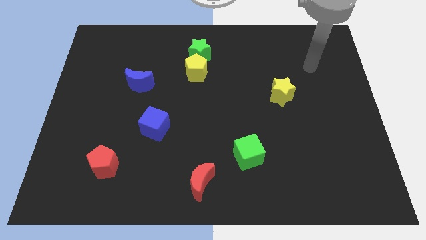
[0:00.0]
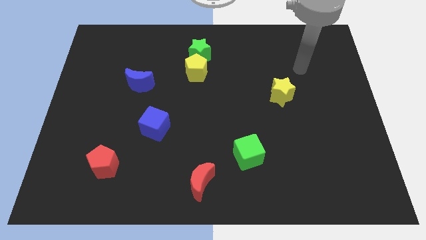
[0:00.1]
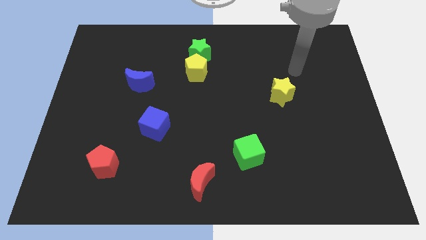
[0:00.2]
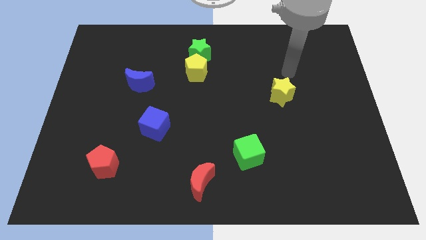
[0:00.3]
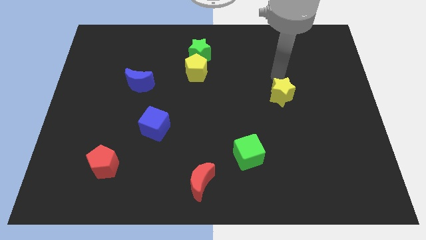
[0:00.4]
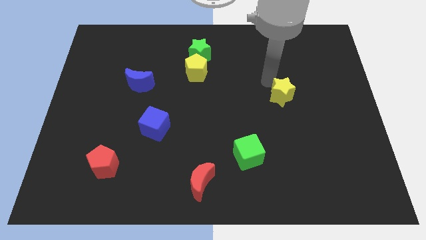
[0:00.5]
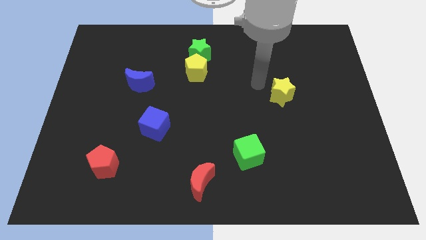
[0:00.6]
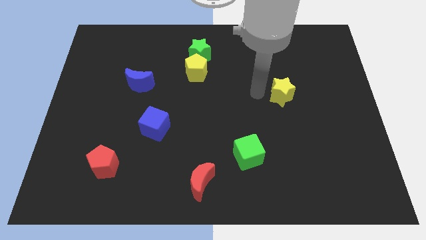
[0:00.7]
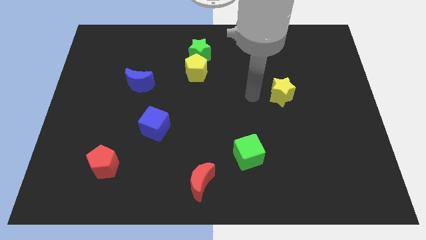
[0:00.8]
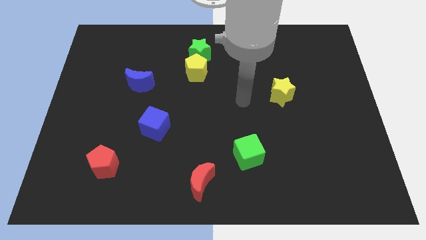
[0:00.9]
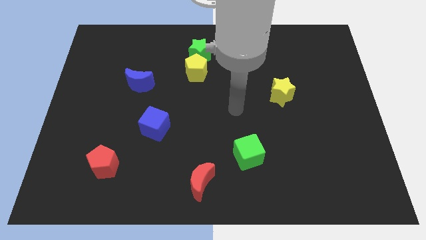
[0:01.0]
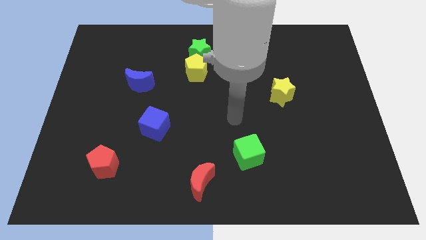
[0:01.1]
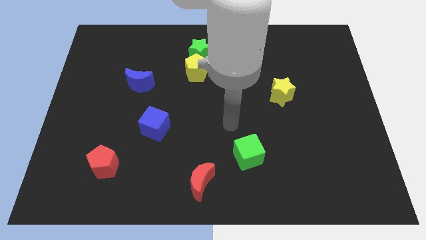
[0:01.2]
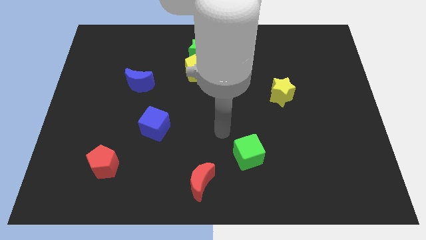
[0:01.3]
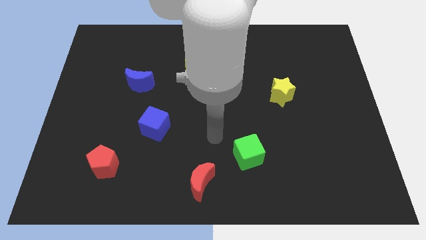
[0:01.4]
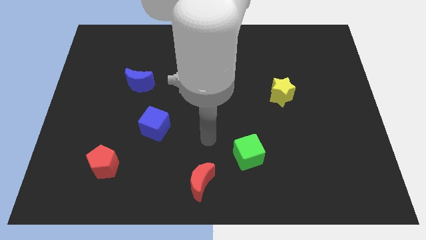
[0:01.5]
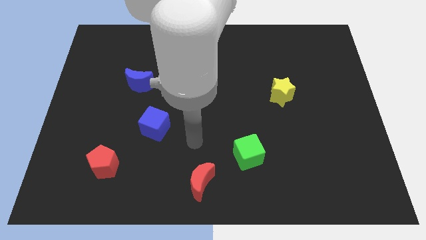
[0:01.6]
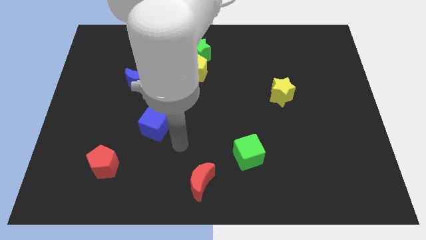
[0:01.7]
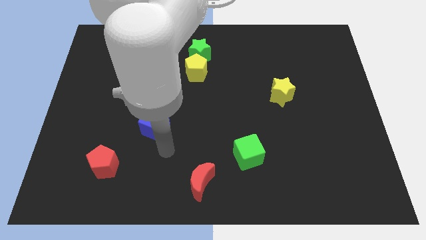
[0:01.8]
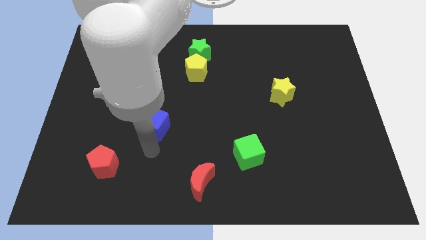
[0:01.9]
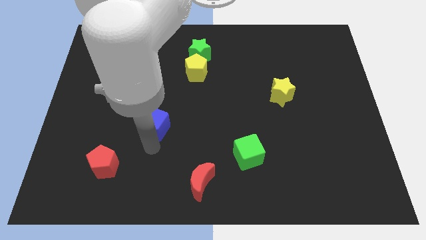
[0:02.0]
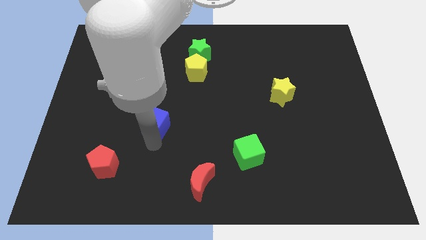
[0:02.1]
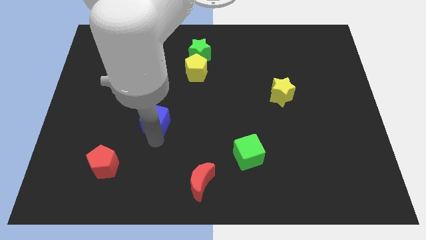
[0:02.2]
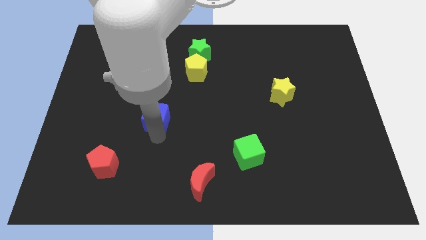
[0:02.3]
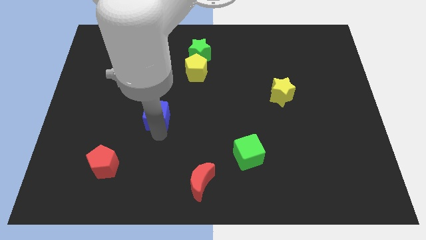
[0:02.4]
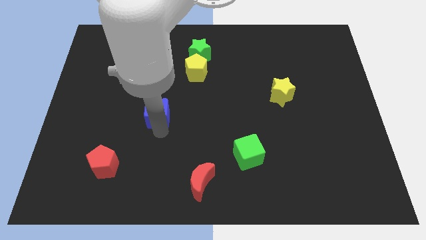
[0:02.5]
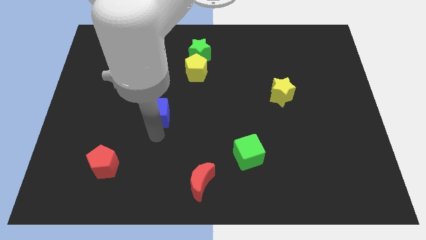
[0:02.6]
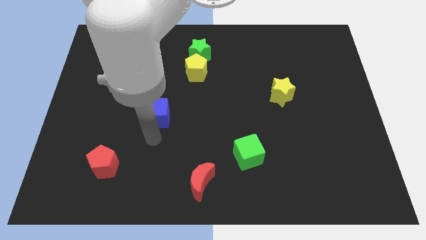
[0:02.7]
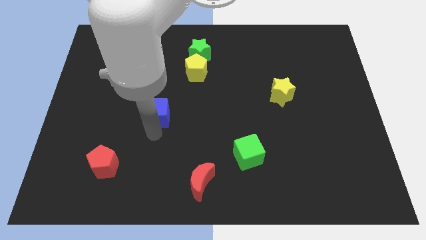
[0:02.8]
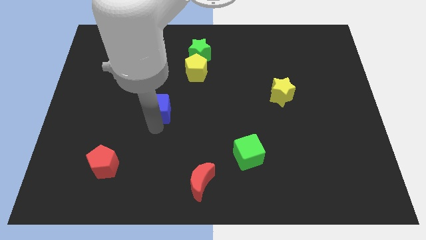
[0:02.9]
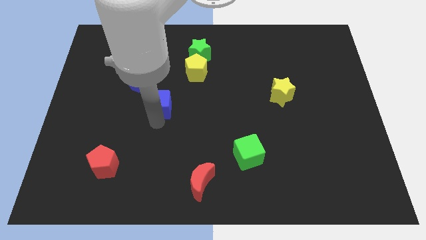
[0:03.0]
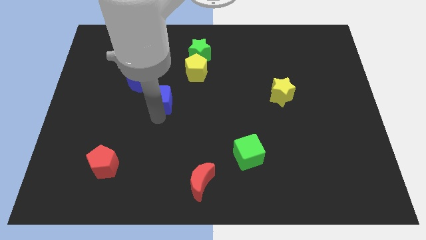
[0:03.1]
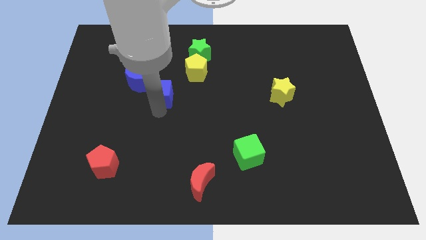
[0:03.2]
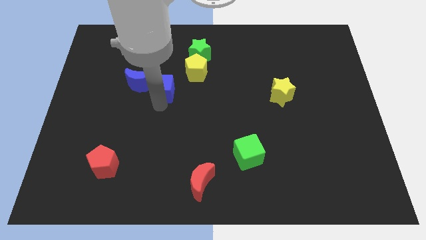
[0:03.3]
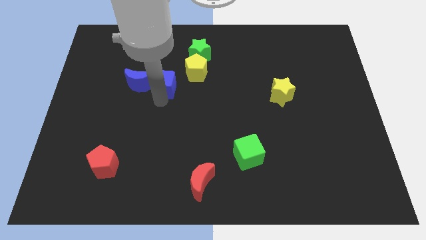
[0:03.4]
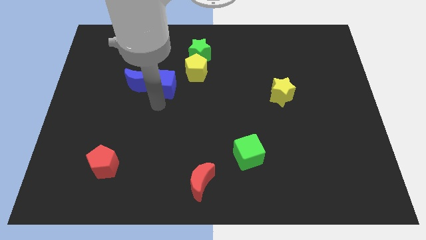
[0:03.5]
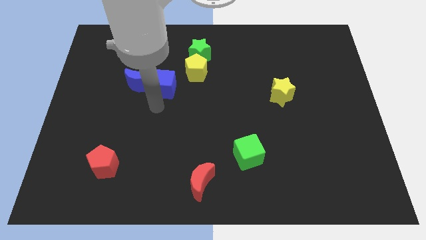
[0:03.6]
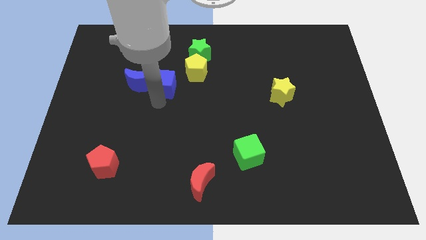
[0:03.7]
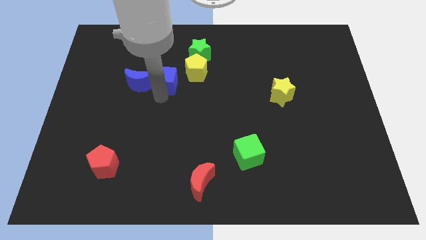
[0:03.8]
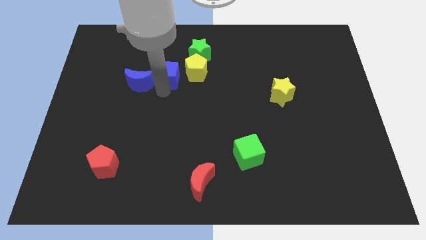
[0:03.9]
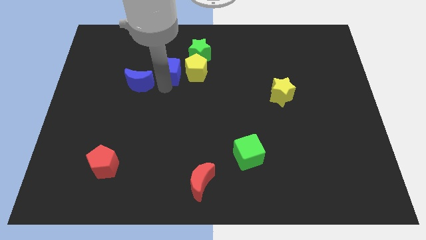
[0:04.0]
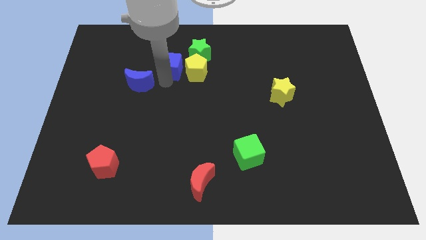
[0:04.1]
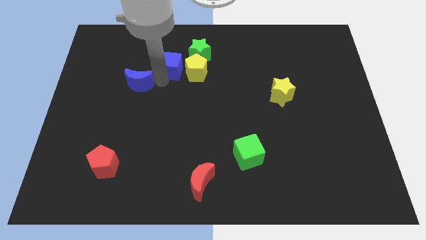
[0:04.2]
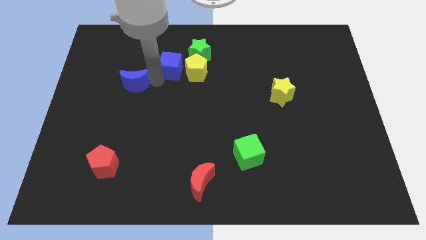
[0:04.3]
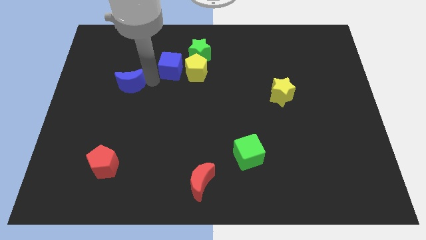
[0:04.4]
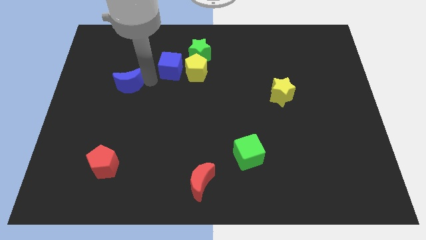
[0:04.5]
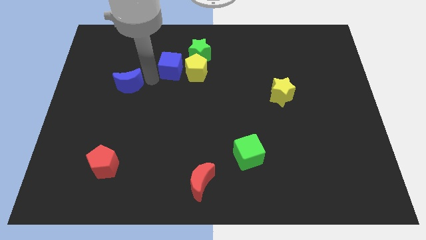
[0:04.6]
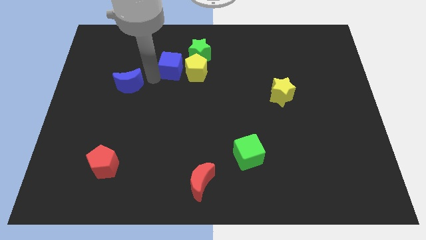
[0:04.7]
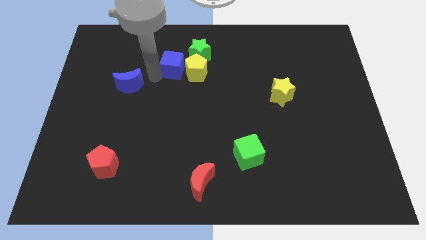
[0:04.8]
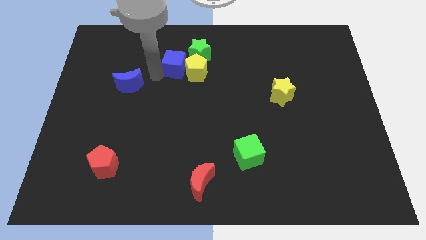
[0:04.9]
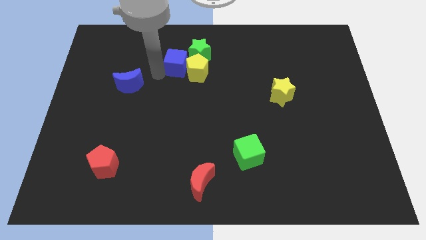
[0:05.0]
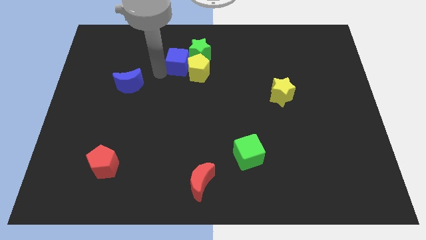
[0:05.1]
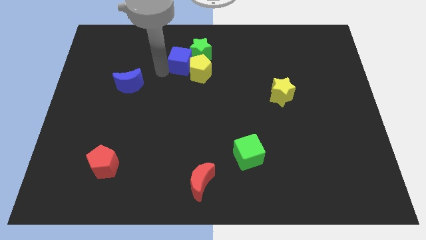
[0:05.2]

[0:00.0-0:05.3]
slide the blue cube close to the green star

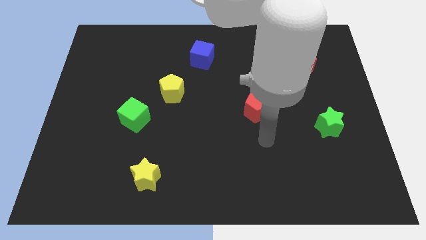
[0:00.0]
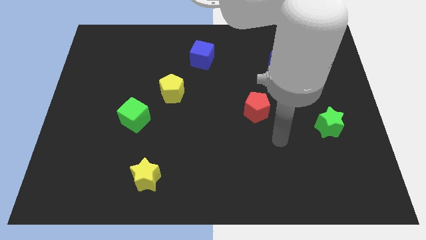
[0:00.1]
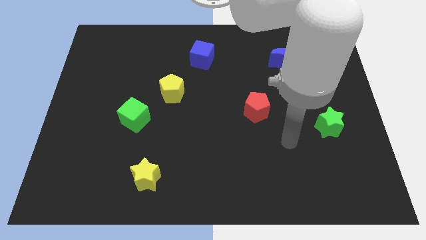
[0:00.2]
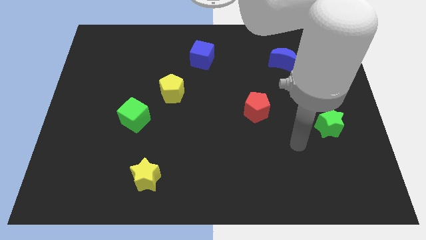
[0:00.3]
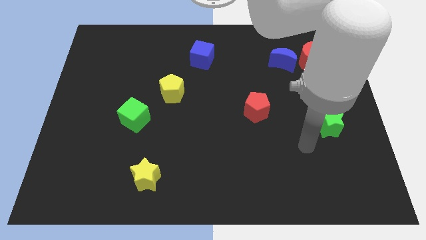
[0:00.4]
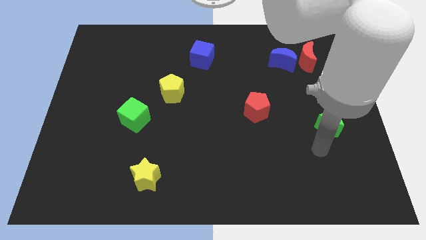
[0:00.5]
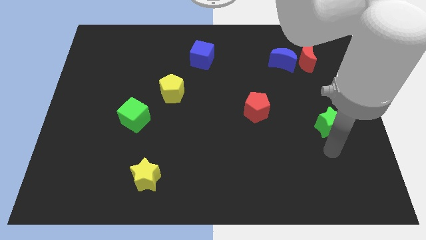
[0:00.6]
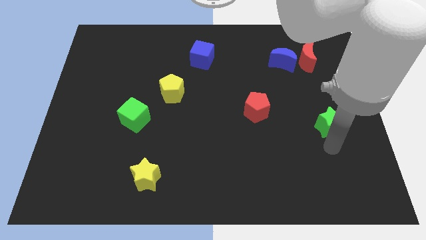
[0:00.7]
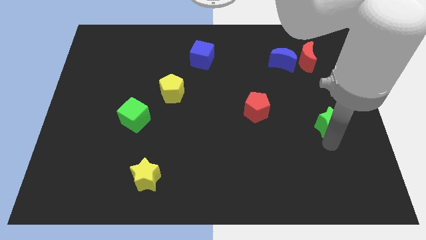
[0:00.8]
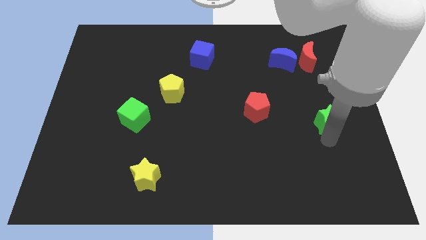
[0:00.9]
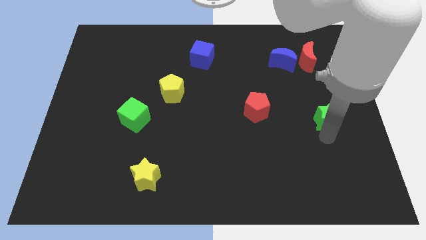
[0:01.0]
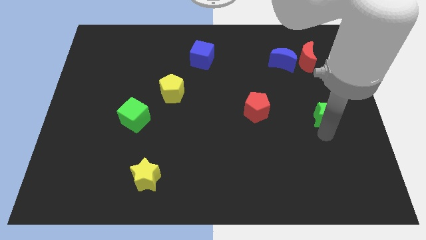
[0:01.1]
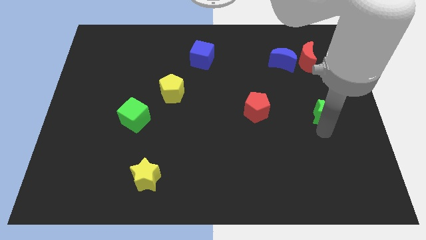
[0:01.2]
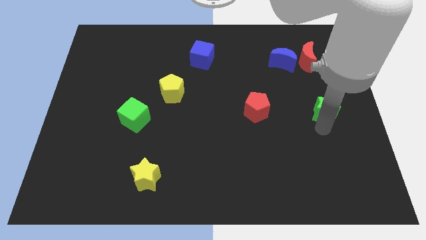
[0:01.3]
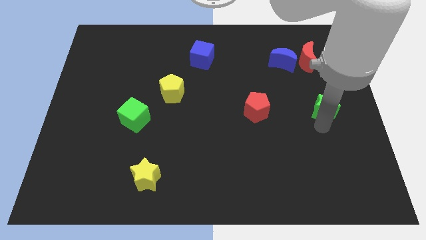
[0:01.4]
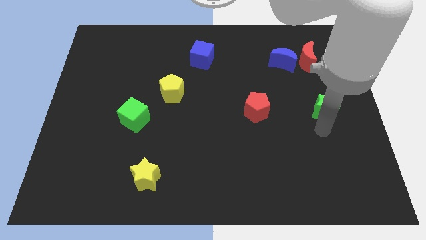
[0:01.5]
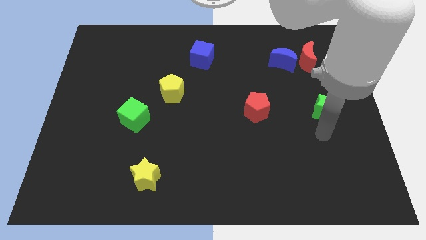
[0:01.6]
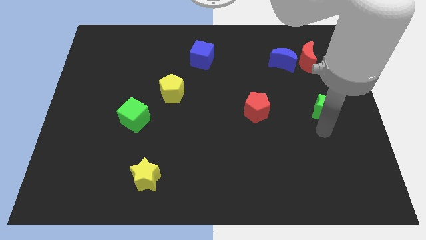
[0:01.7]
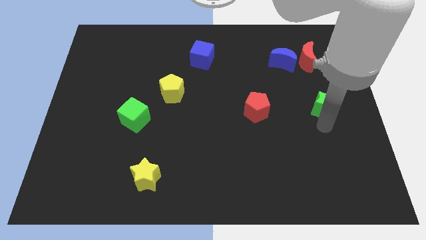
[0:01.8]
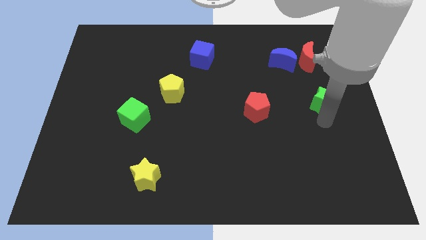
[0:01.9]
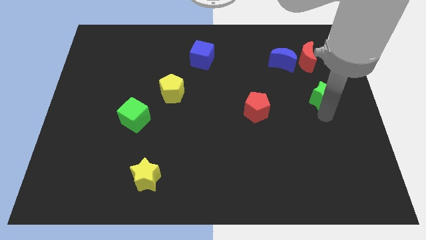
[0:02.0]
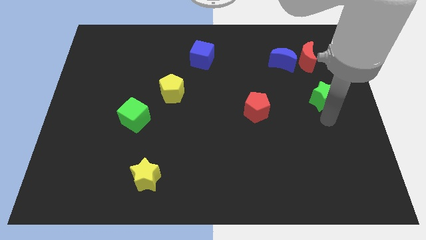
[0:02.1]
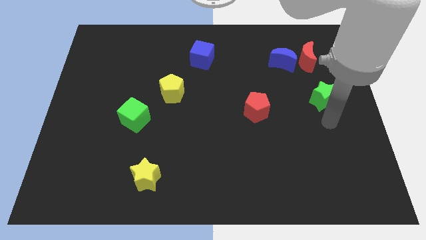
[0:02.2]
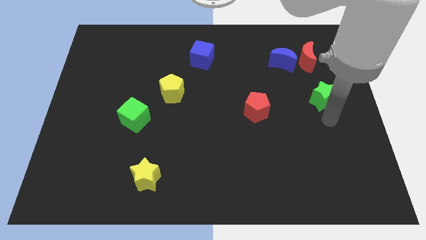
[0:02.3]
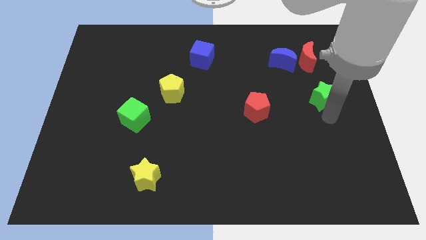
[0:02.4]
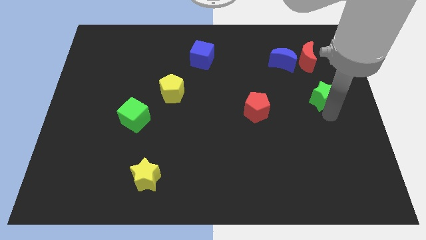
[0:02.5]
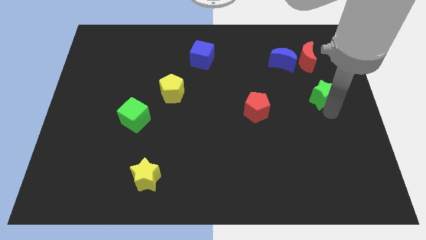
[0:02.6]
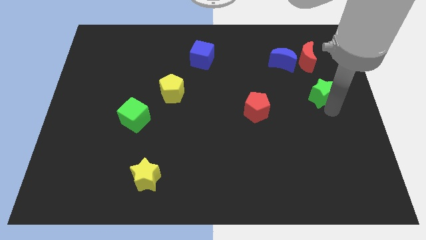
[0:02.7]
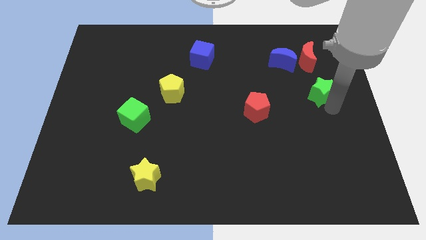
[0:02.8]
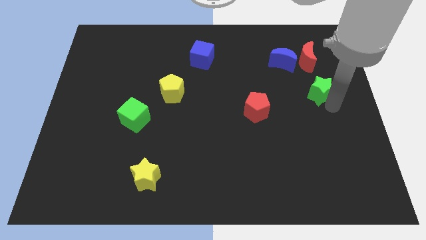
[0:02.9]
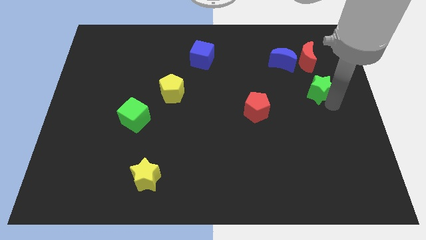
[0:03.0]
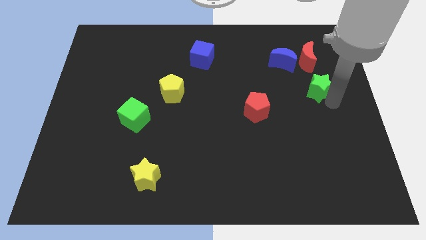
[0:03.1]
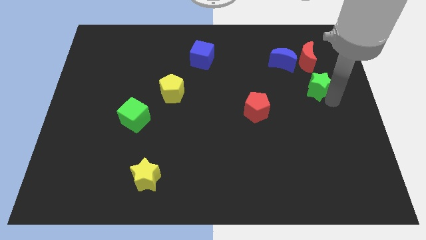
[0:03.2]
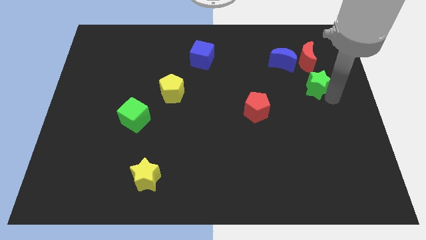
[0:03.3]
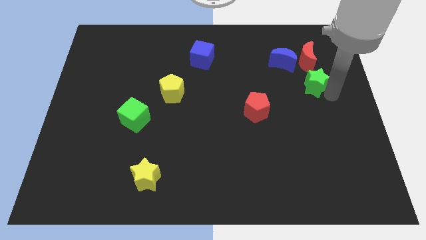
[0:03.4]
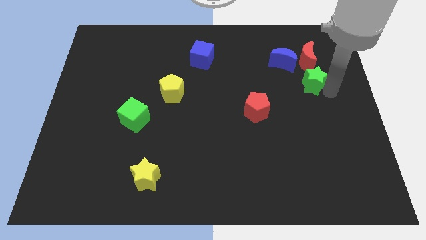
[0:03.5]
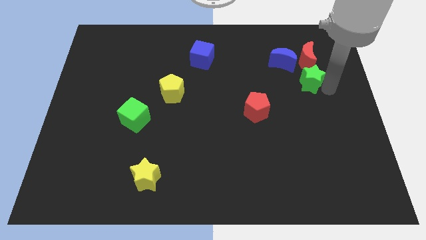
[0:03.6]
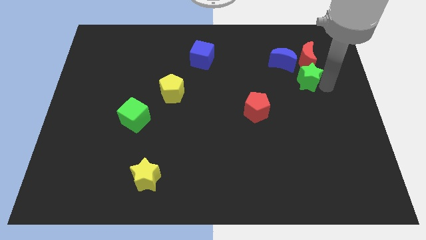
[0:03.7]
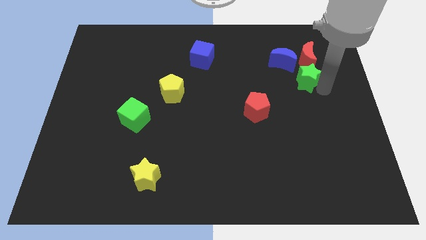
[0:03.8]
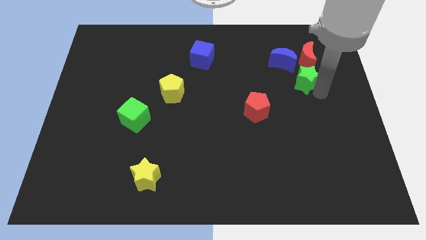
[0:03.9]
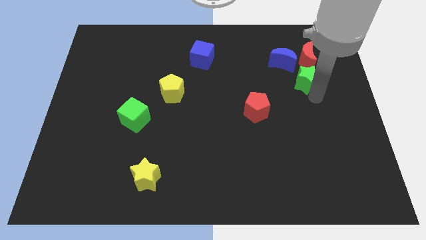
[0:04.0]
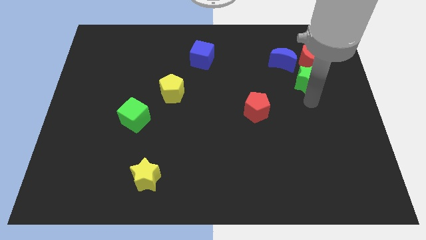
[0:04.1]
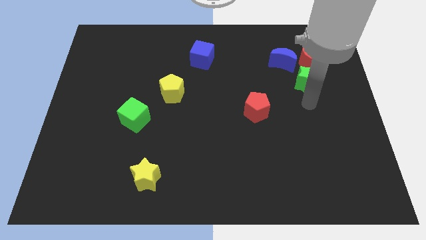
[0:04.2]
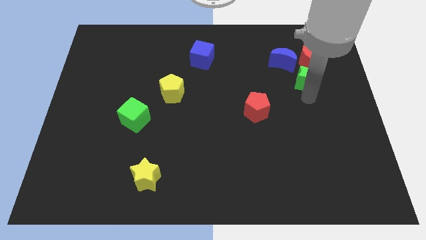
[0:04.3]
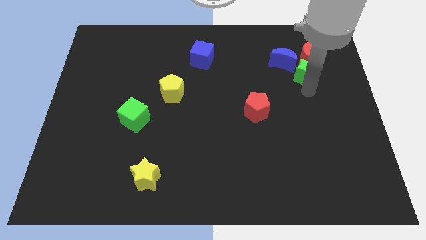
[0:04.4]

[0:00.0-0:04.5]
move the green star next to the red moon
